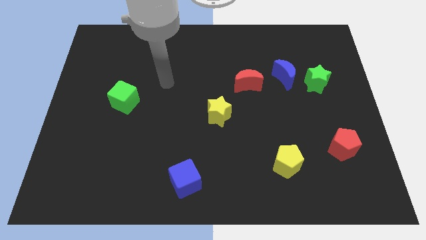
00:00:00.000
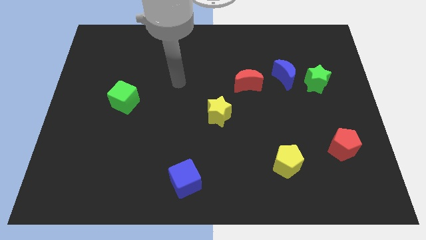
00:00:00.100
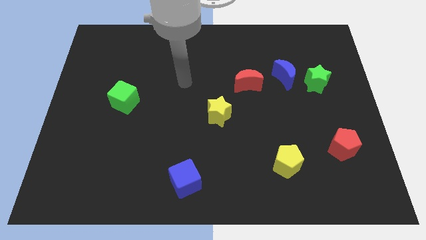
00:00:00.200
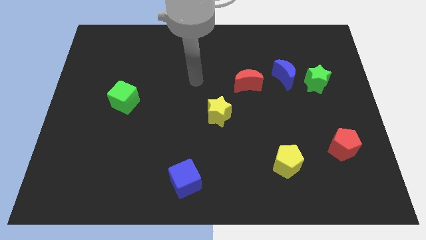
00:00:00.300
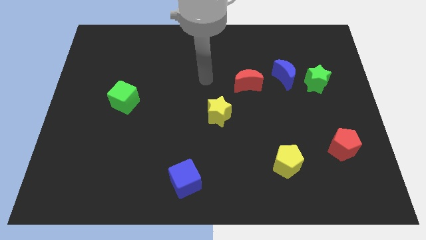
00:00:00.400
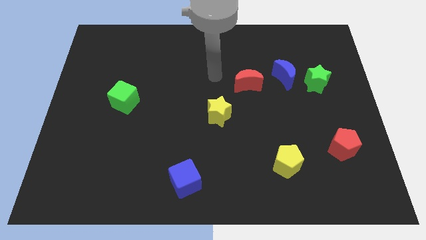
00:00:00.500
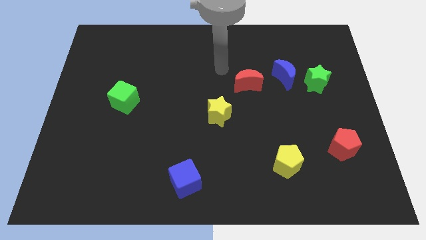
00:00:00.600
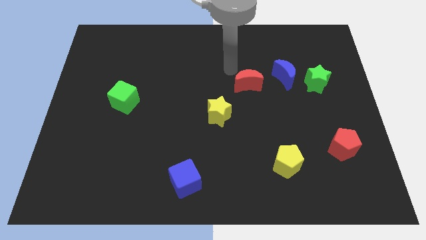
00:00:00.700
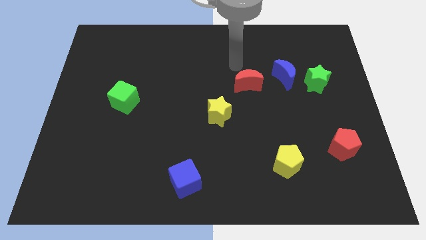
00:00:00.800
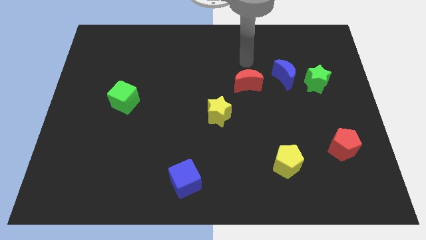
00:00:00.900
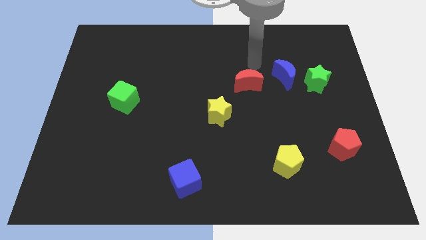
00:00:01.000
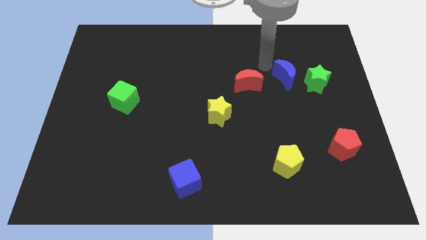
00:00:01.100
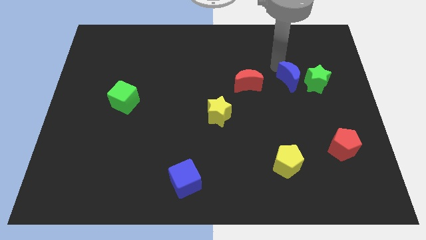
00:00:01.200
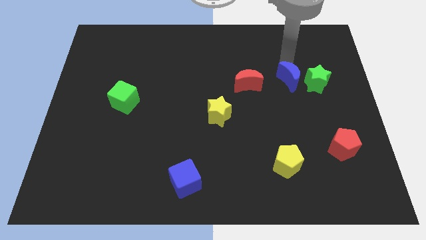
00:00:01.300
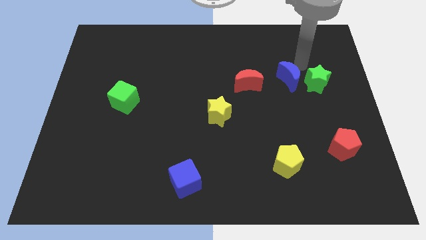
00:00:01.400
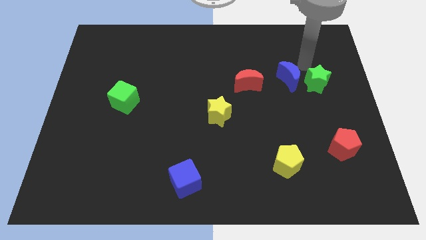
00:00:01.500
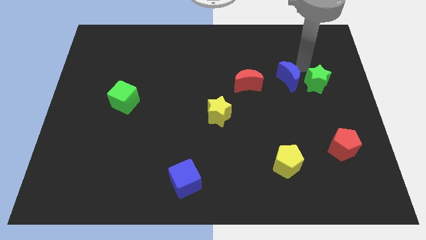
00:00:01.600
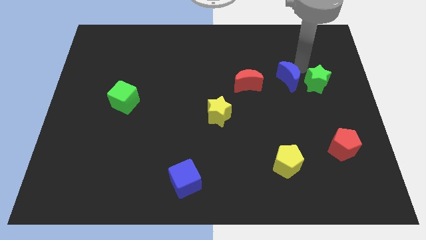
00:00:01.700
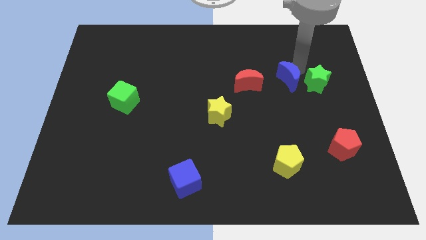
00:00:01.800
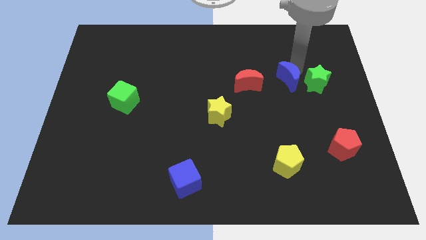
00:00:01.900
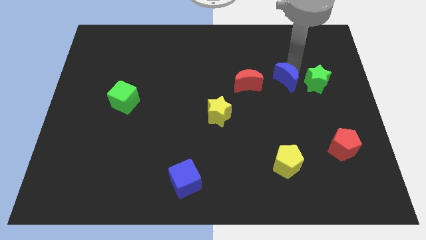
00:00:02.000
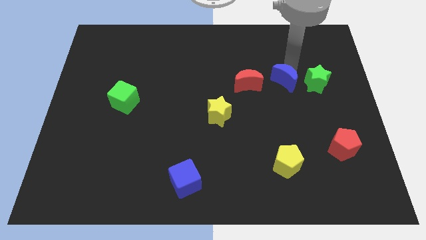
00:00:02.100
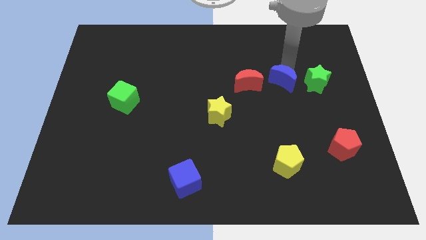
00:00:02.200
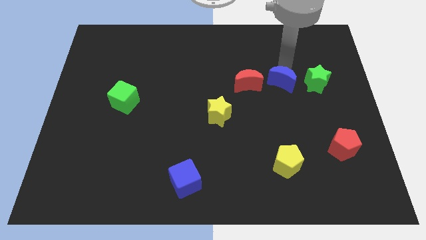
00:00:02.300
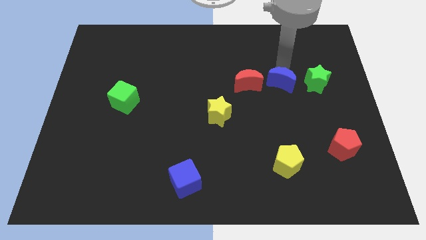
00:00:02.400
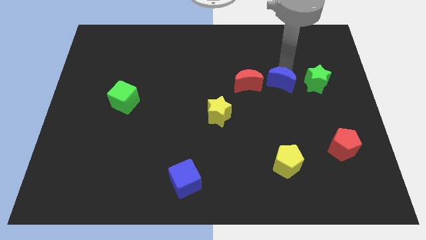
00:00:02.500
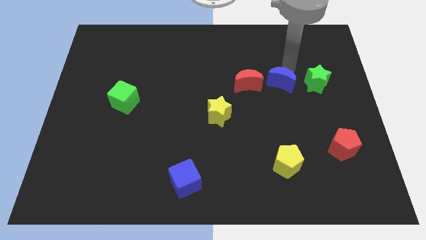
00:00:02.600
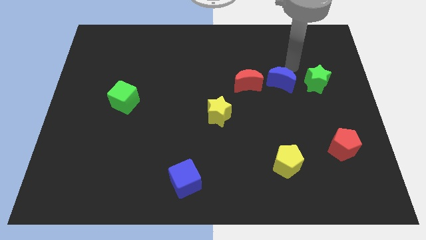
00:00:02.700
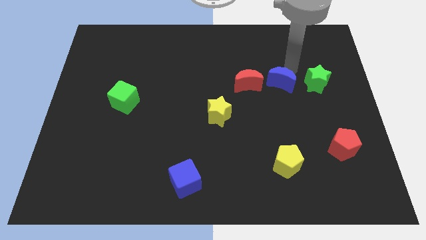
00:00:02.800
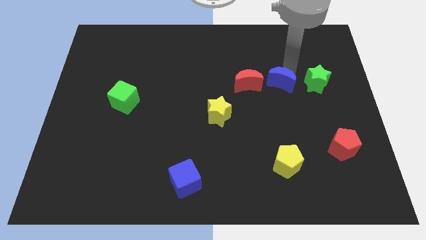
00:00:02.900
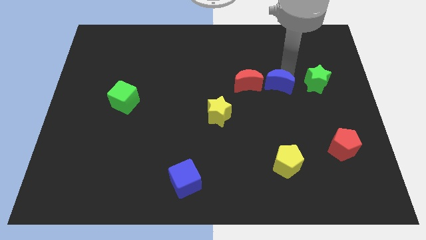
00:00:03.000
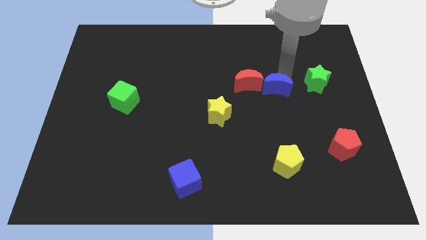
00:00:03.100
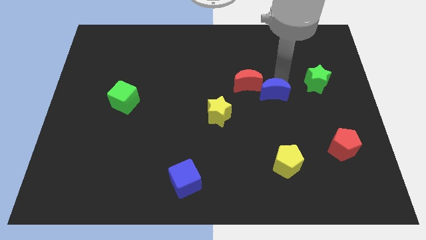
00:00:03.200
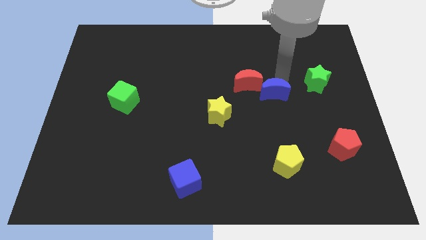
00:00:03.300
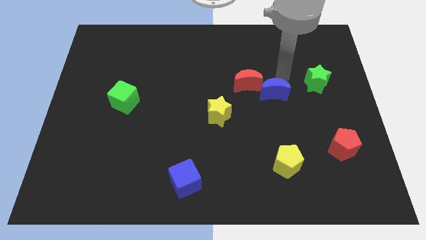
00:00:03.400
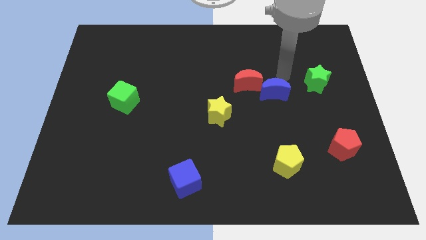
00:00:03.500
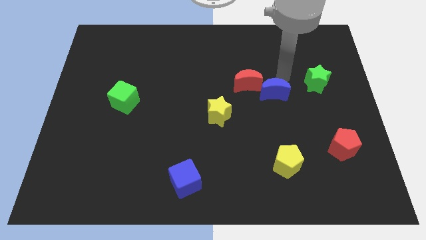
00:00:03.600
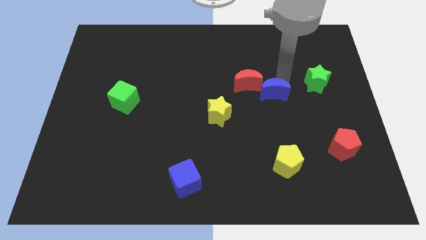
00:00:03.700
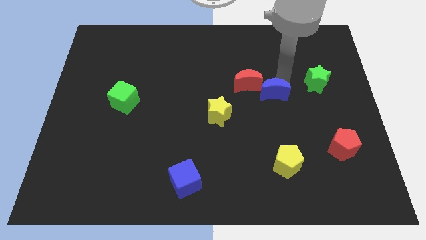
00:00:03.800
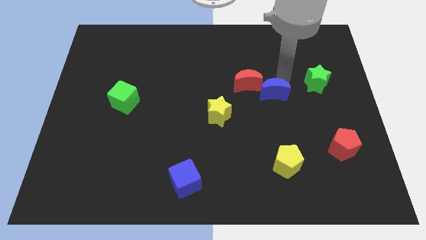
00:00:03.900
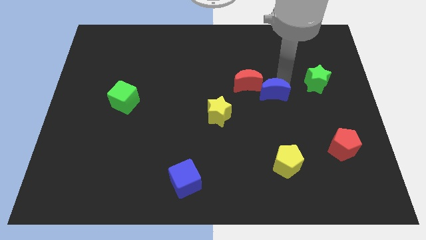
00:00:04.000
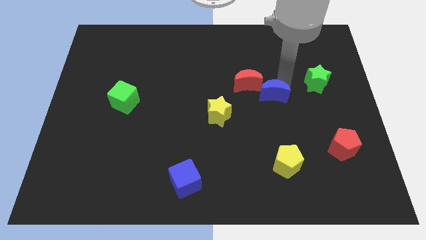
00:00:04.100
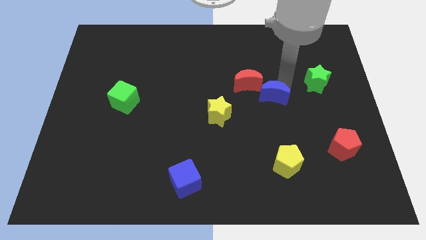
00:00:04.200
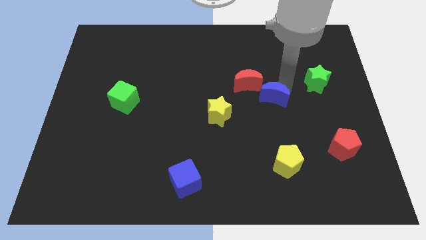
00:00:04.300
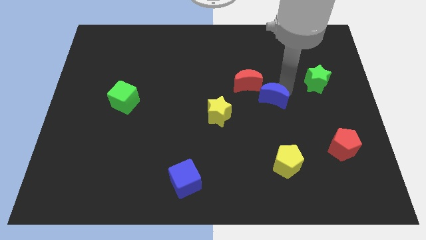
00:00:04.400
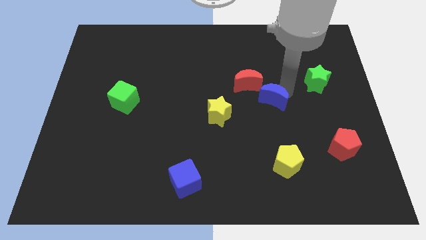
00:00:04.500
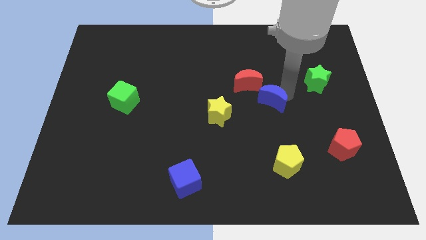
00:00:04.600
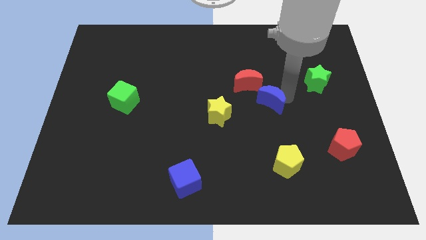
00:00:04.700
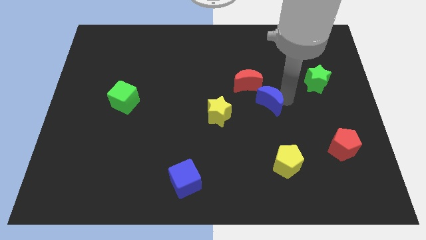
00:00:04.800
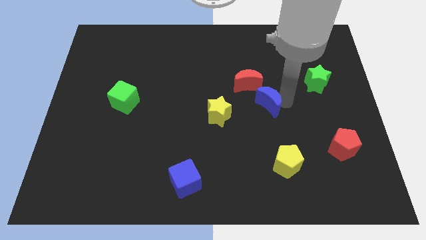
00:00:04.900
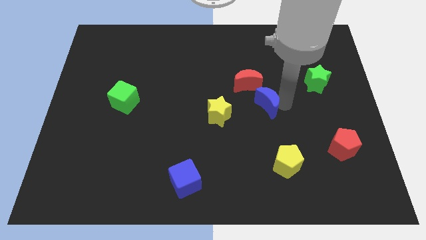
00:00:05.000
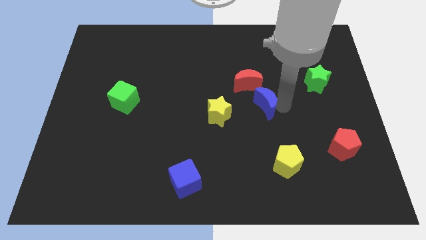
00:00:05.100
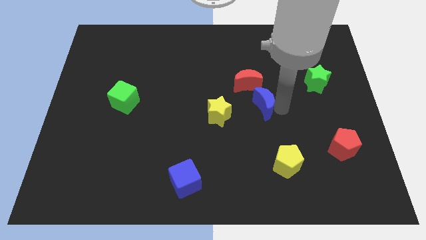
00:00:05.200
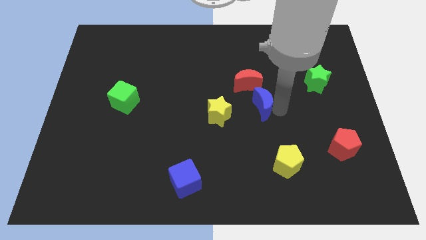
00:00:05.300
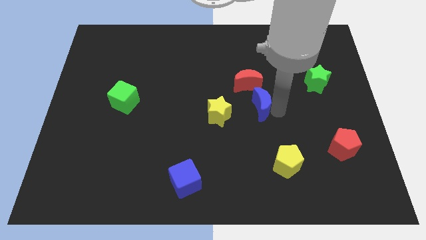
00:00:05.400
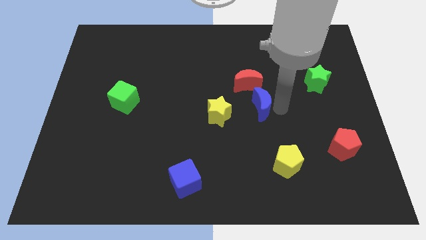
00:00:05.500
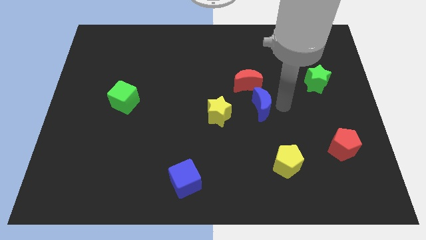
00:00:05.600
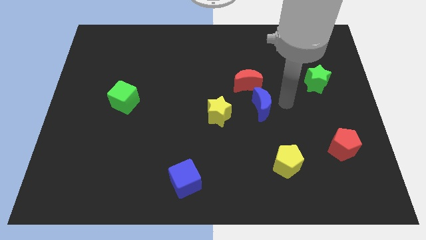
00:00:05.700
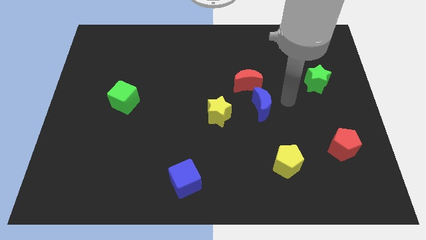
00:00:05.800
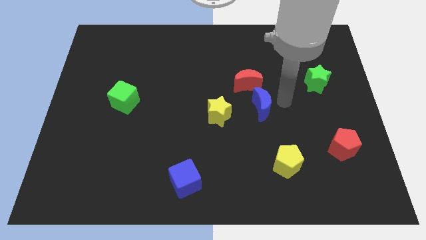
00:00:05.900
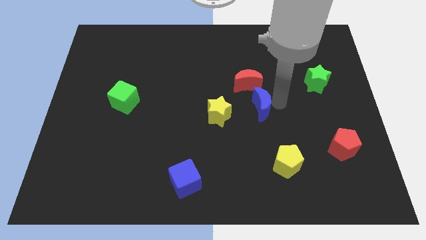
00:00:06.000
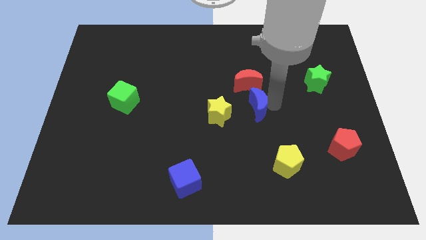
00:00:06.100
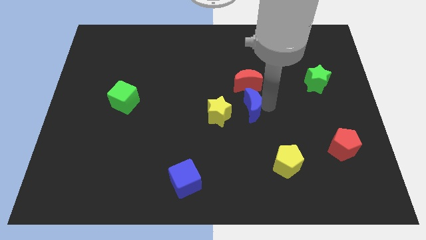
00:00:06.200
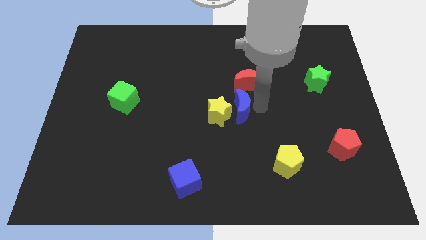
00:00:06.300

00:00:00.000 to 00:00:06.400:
put the blue moon next to the yellow star

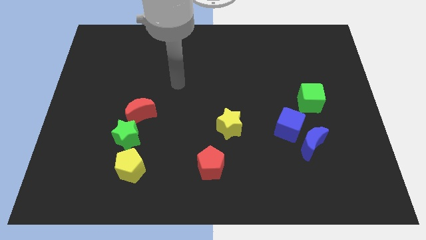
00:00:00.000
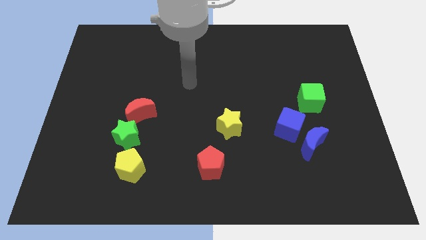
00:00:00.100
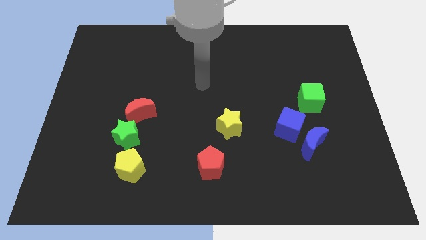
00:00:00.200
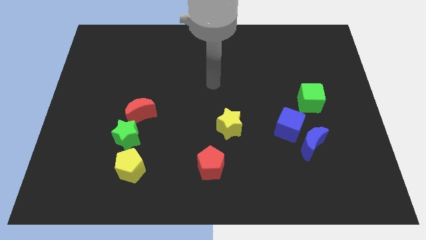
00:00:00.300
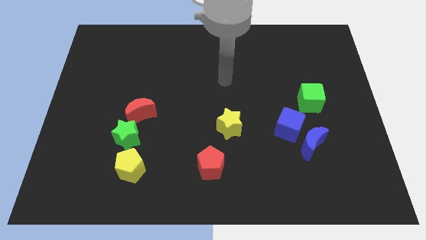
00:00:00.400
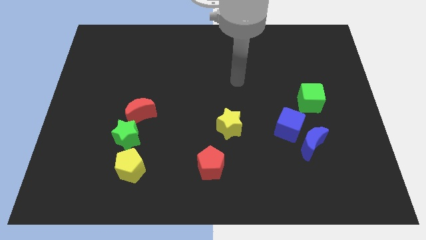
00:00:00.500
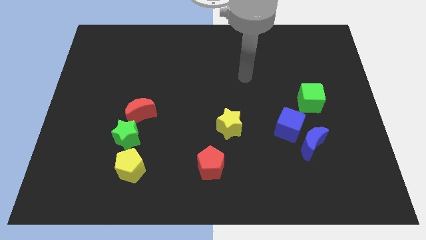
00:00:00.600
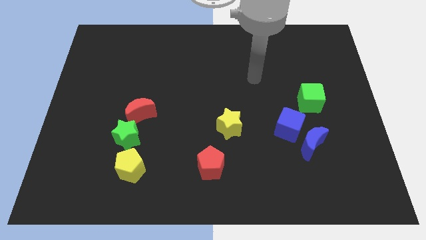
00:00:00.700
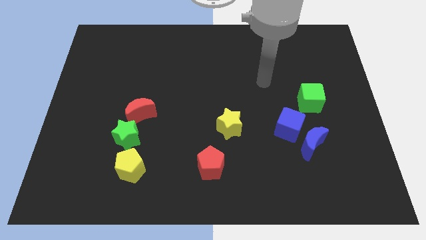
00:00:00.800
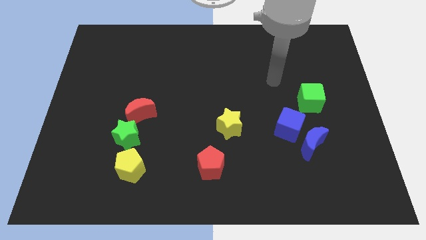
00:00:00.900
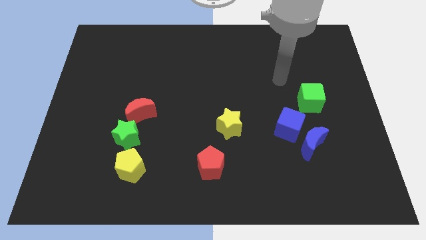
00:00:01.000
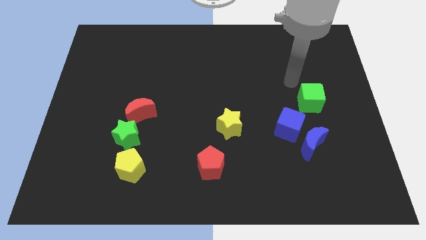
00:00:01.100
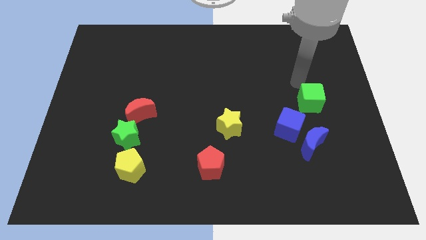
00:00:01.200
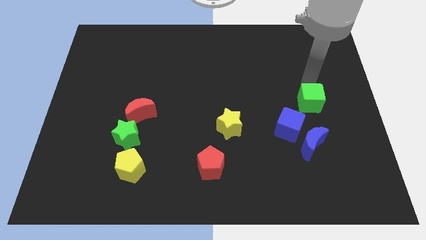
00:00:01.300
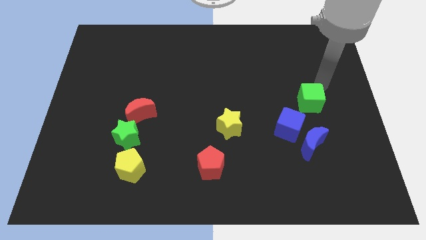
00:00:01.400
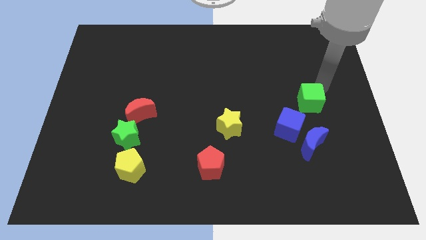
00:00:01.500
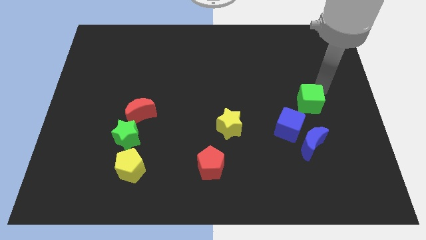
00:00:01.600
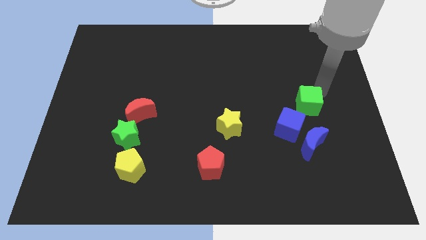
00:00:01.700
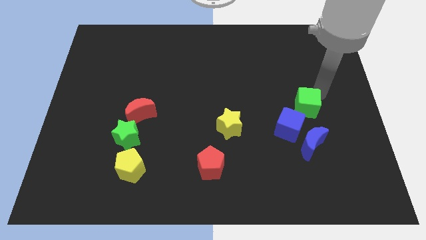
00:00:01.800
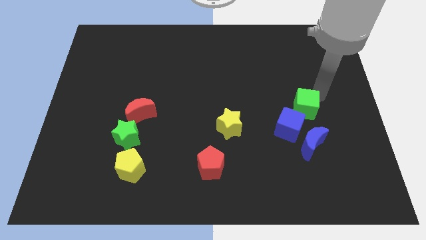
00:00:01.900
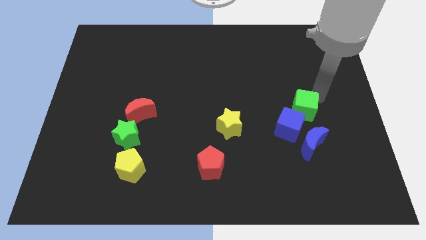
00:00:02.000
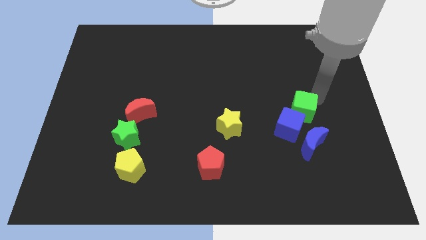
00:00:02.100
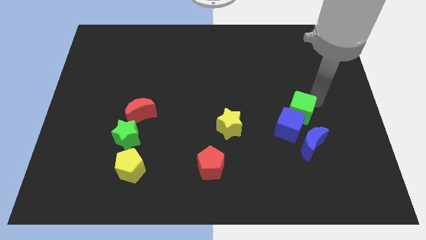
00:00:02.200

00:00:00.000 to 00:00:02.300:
push the green cube close to the blue cube
